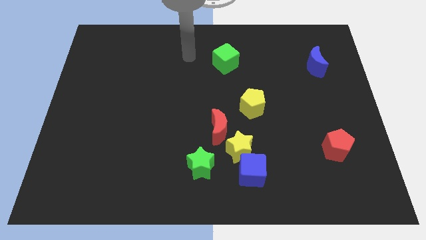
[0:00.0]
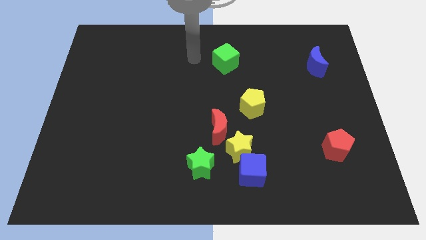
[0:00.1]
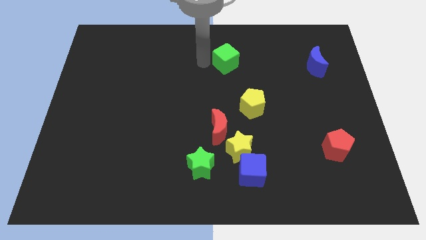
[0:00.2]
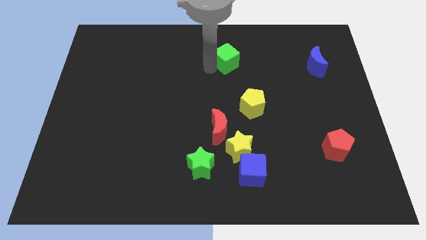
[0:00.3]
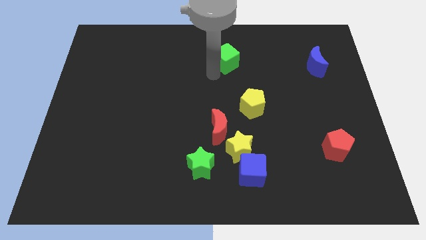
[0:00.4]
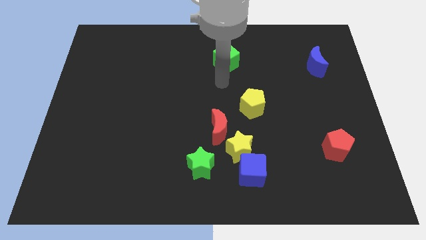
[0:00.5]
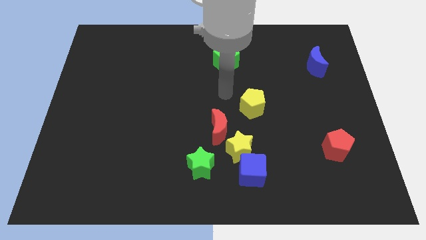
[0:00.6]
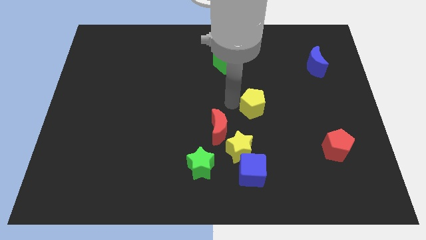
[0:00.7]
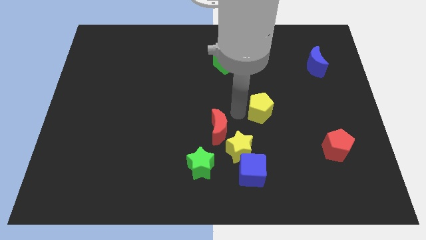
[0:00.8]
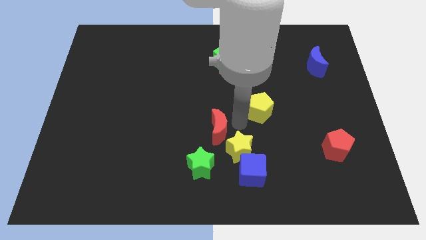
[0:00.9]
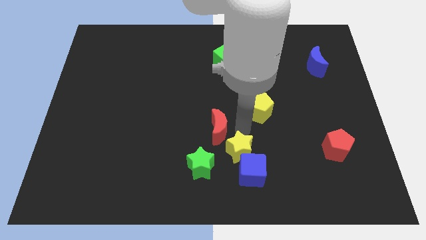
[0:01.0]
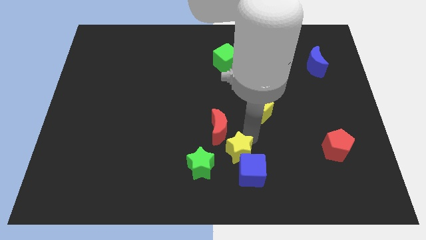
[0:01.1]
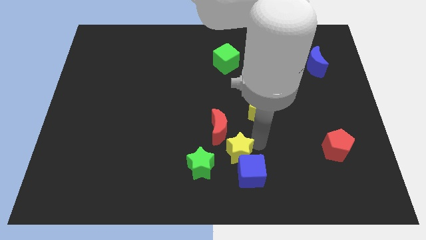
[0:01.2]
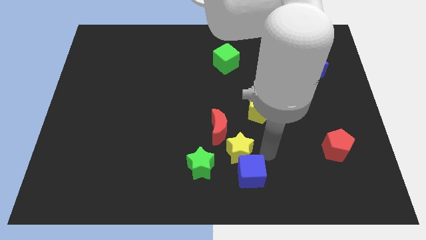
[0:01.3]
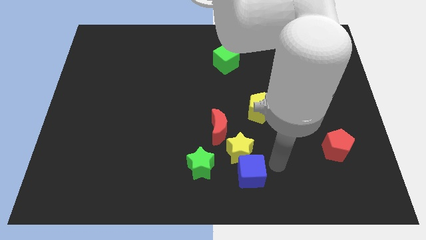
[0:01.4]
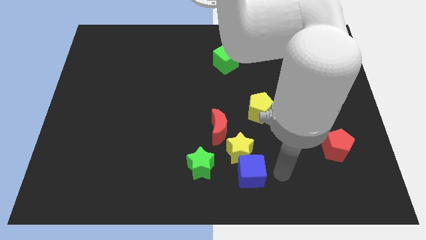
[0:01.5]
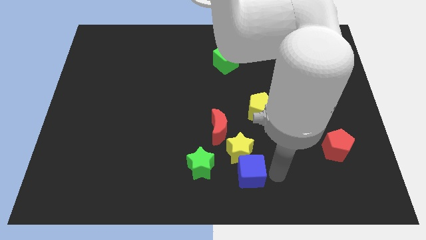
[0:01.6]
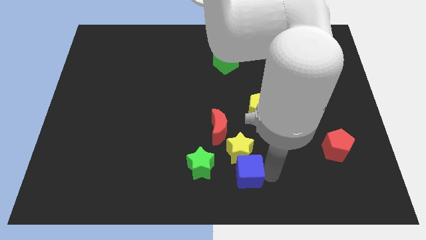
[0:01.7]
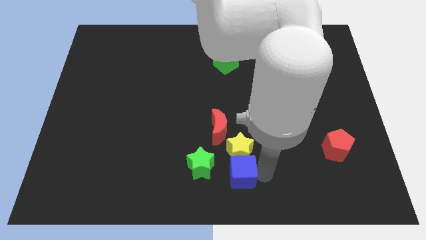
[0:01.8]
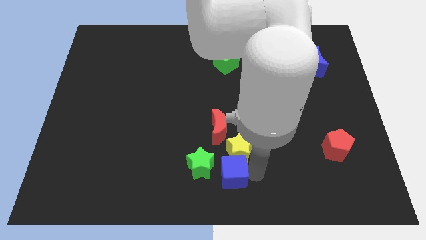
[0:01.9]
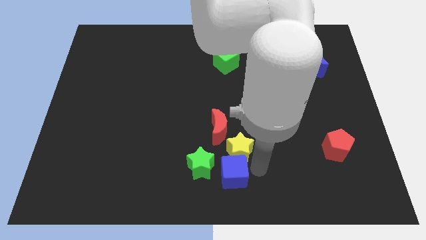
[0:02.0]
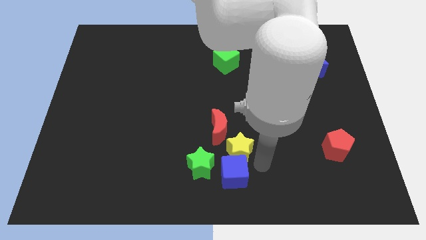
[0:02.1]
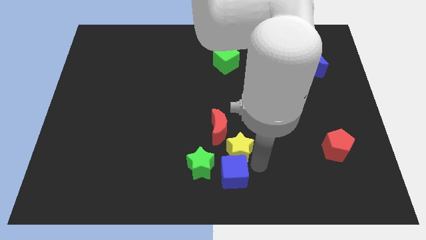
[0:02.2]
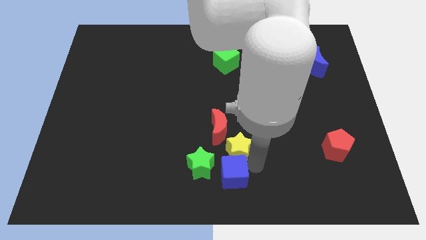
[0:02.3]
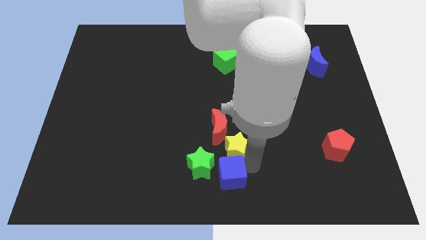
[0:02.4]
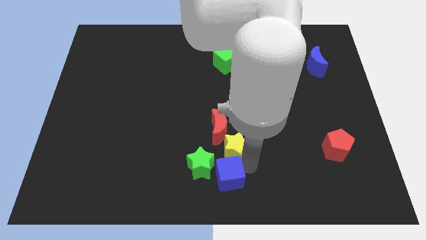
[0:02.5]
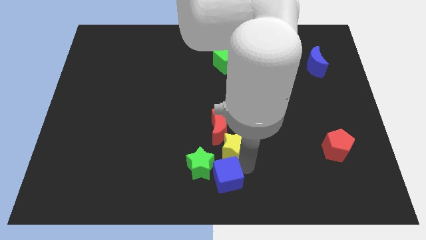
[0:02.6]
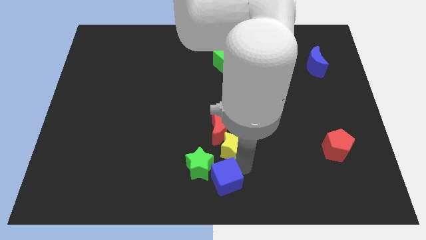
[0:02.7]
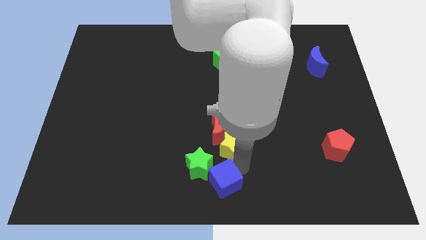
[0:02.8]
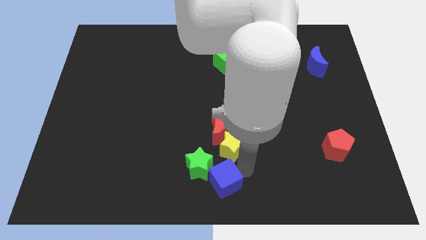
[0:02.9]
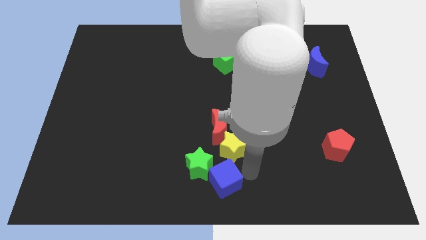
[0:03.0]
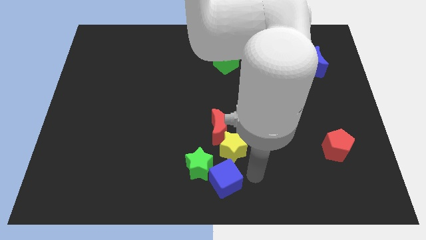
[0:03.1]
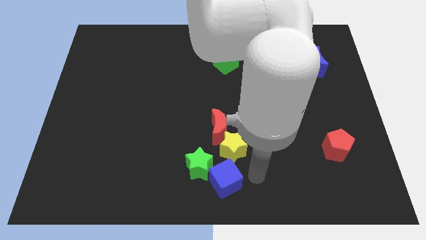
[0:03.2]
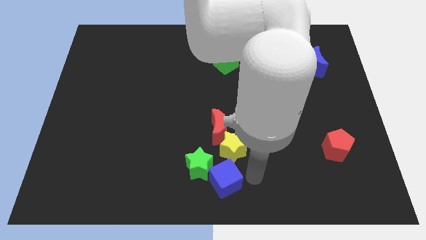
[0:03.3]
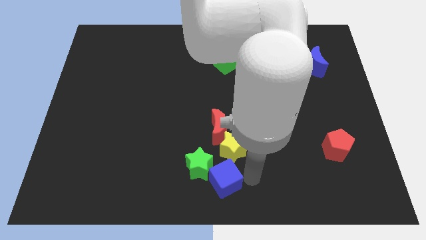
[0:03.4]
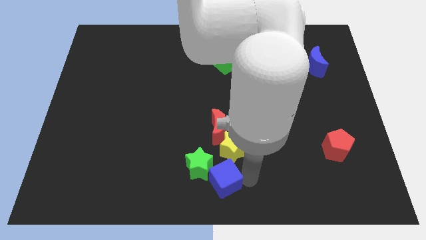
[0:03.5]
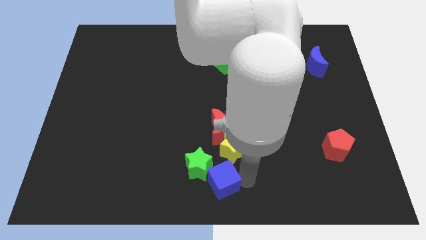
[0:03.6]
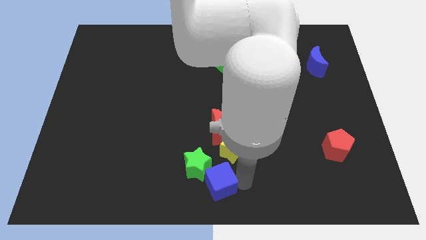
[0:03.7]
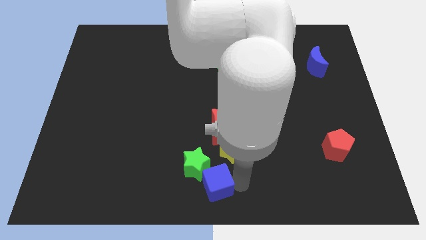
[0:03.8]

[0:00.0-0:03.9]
slightly slide the blue cube to the left

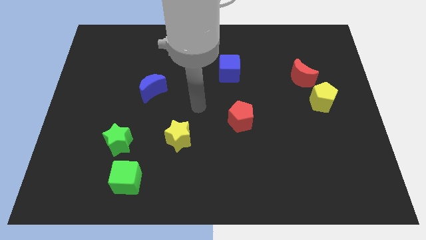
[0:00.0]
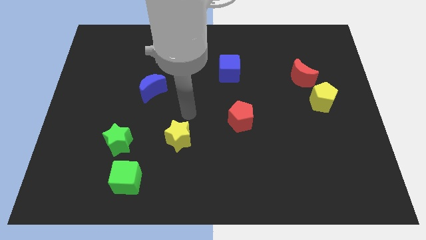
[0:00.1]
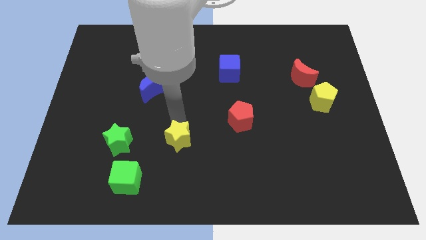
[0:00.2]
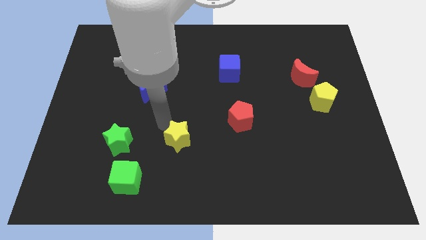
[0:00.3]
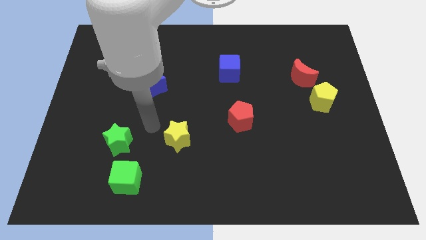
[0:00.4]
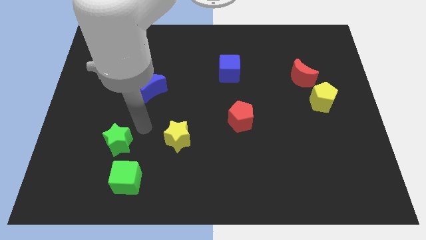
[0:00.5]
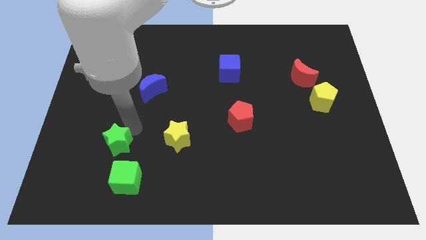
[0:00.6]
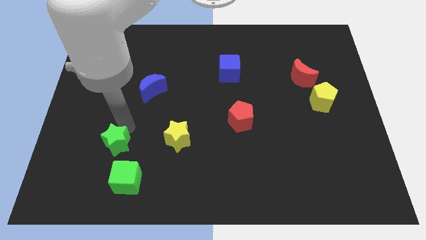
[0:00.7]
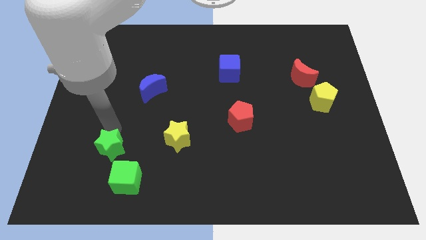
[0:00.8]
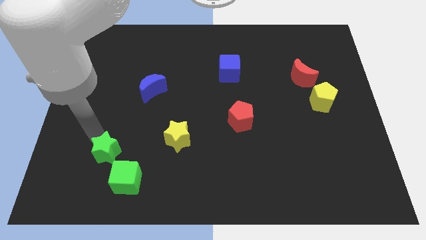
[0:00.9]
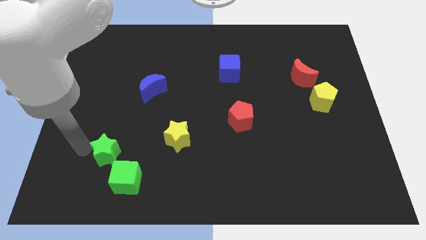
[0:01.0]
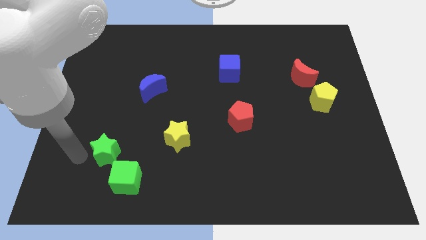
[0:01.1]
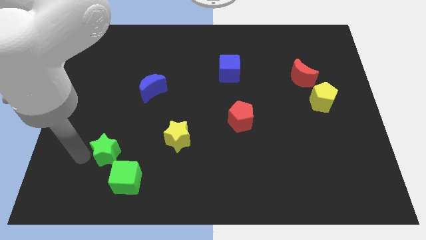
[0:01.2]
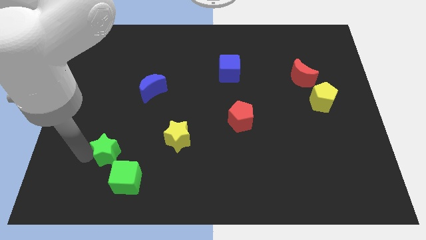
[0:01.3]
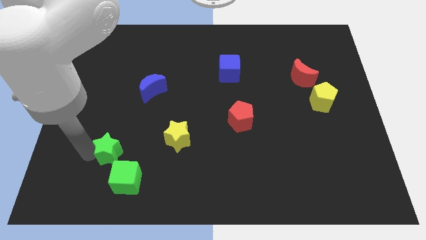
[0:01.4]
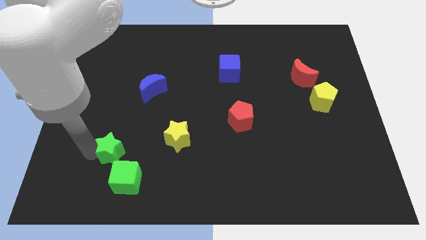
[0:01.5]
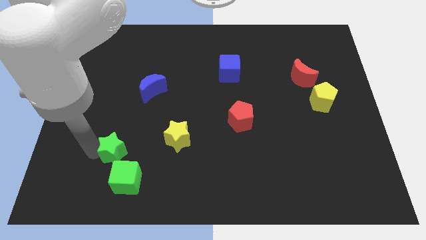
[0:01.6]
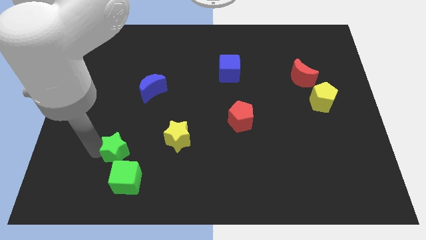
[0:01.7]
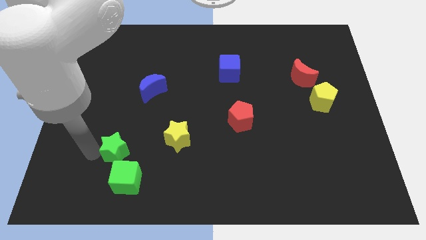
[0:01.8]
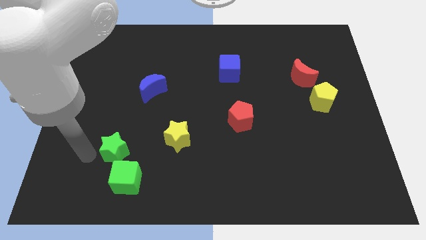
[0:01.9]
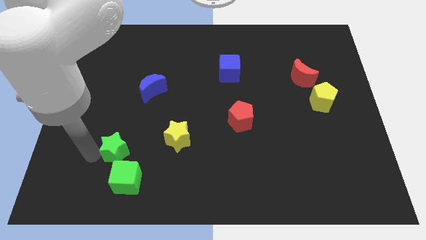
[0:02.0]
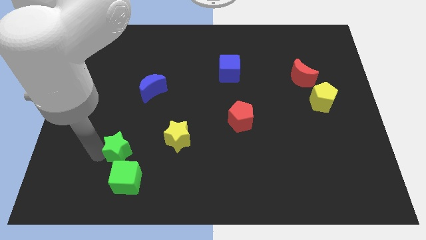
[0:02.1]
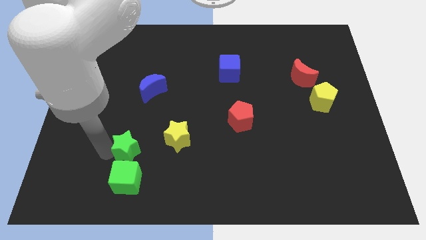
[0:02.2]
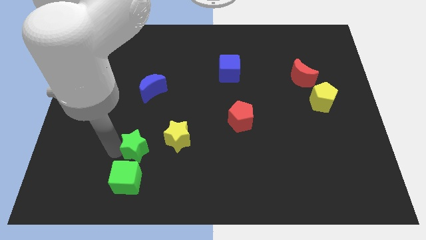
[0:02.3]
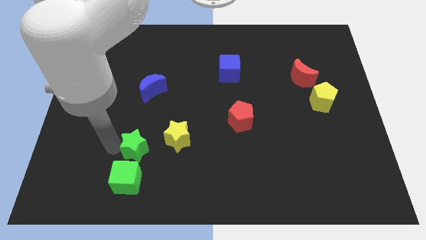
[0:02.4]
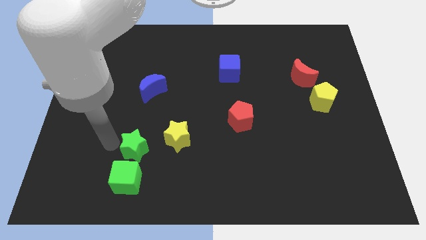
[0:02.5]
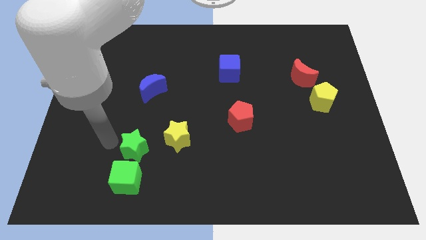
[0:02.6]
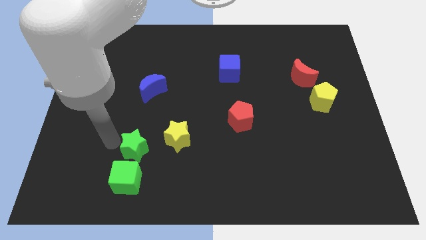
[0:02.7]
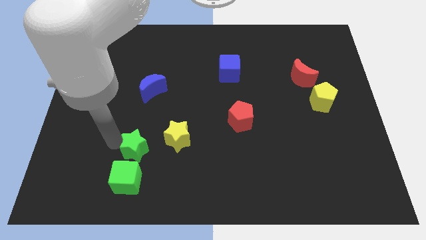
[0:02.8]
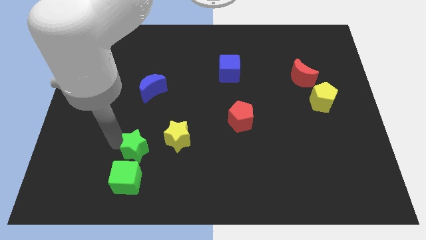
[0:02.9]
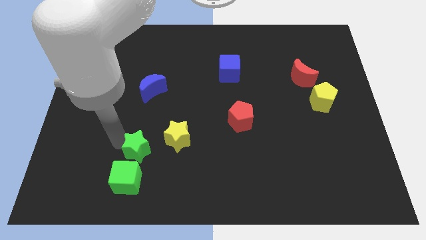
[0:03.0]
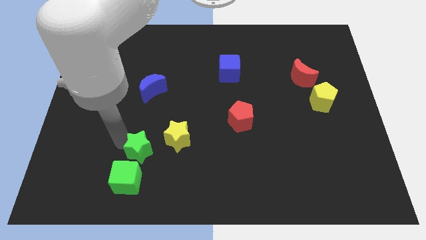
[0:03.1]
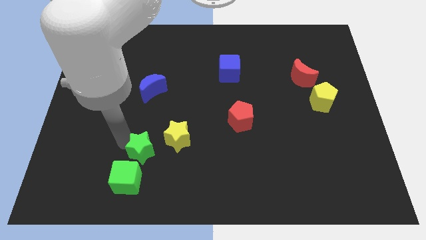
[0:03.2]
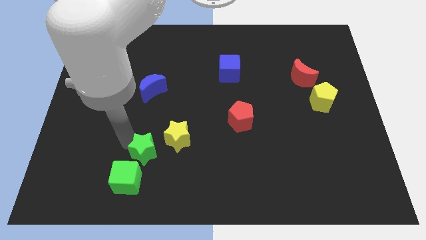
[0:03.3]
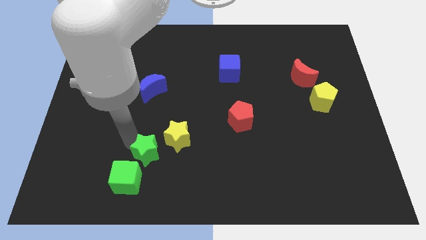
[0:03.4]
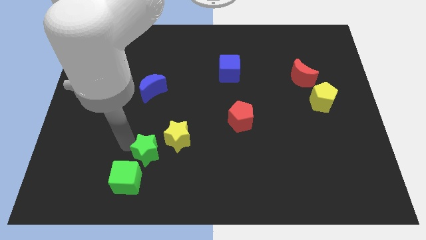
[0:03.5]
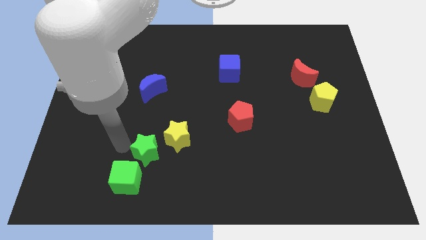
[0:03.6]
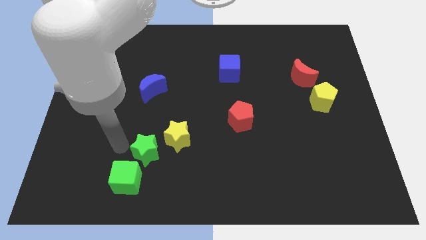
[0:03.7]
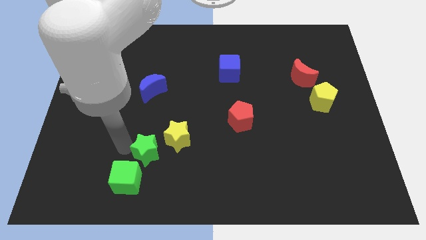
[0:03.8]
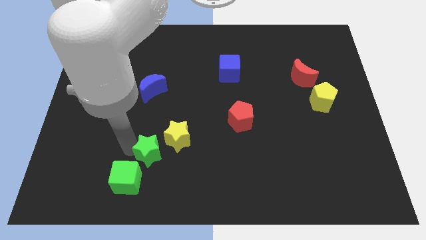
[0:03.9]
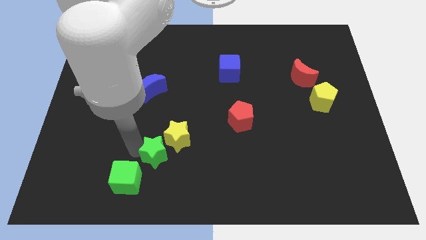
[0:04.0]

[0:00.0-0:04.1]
push the green star to the right slightly
